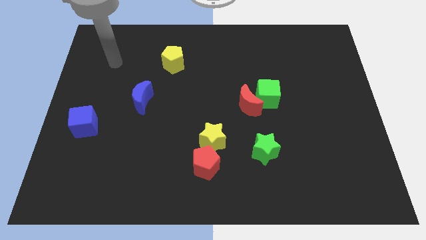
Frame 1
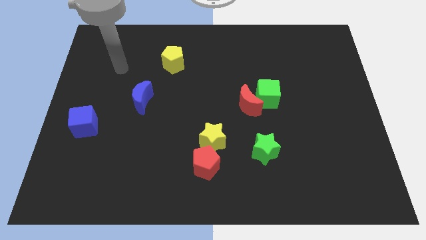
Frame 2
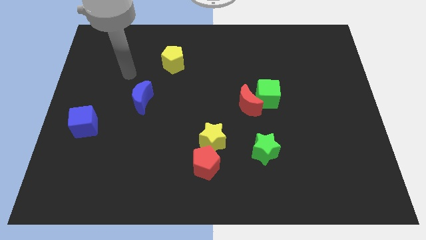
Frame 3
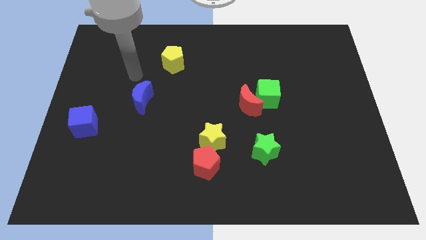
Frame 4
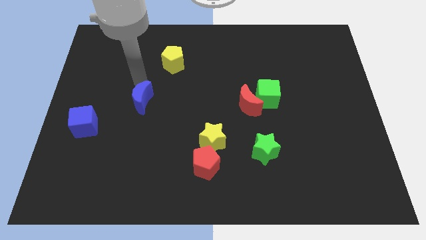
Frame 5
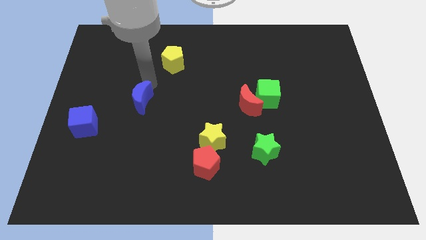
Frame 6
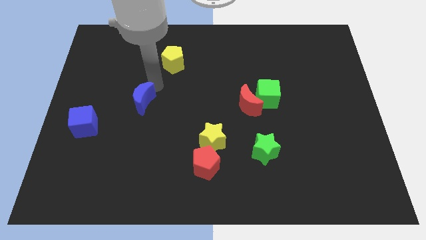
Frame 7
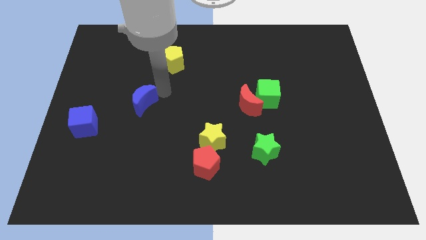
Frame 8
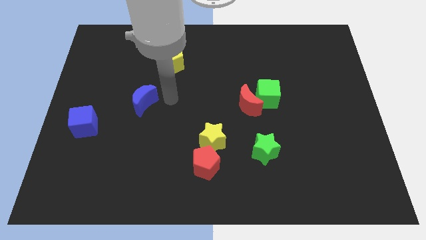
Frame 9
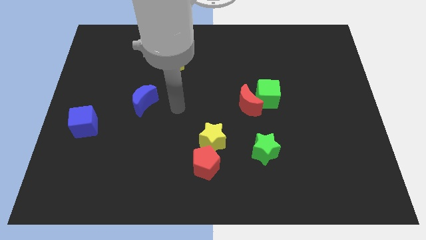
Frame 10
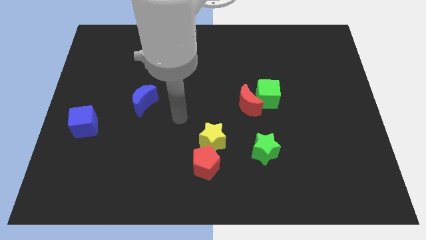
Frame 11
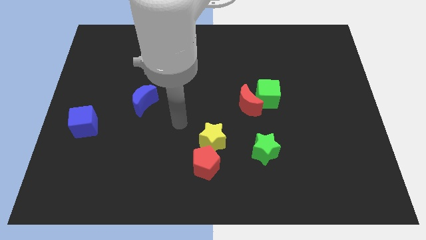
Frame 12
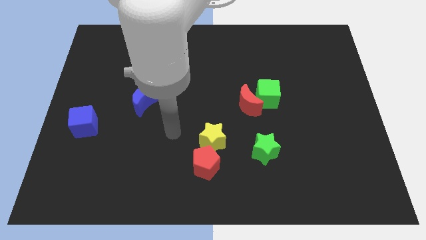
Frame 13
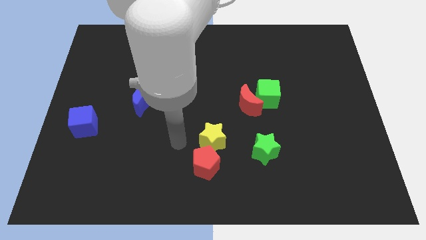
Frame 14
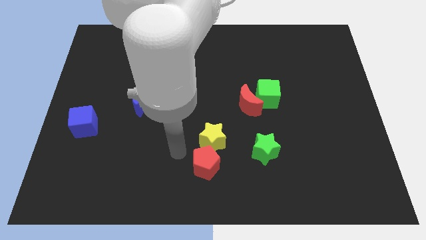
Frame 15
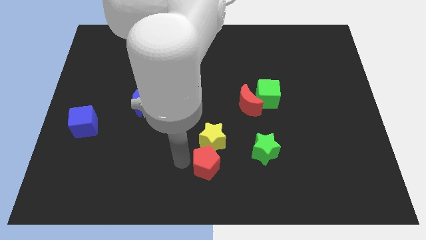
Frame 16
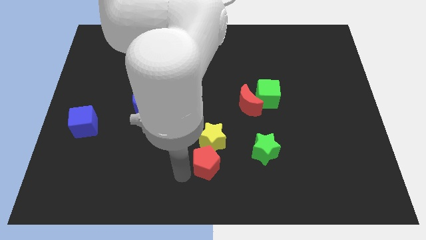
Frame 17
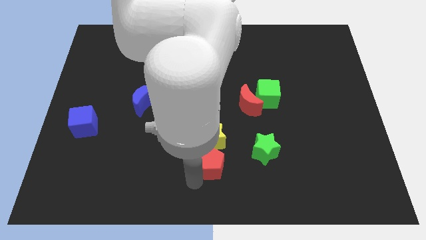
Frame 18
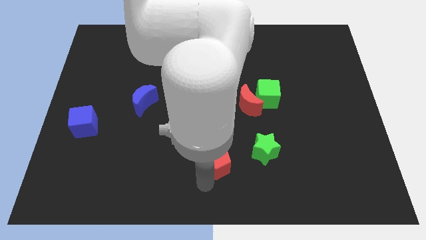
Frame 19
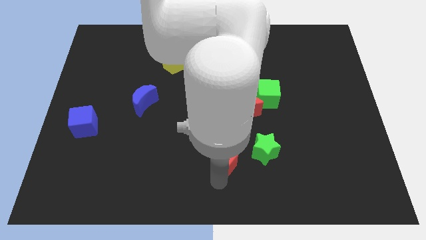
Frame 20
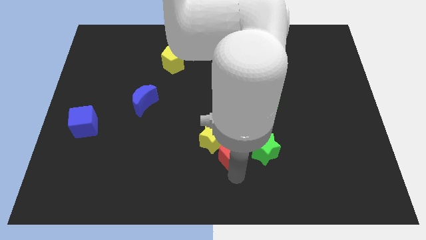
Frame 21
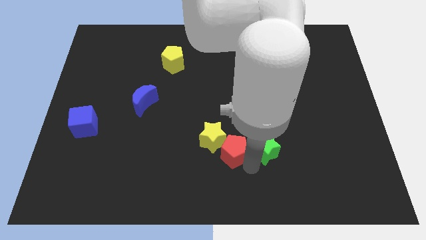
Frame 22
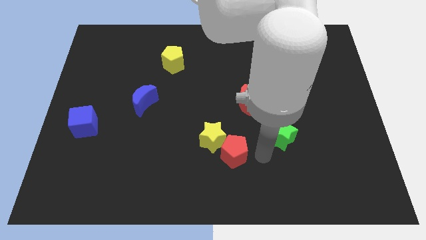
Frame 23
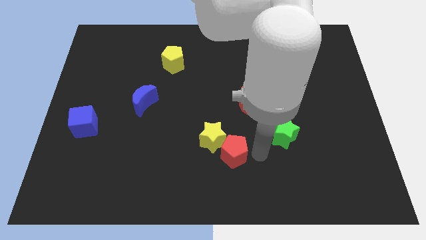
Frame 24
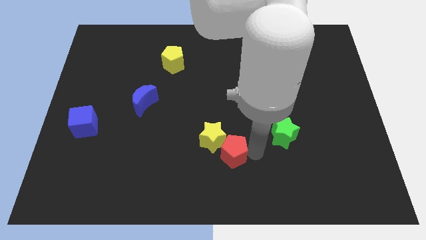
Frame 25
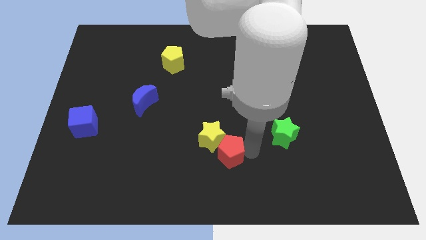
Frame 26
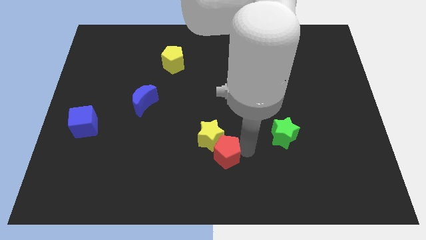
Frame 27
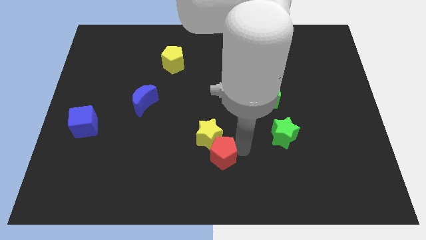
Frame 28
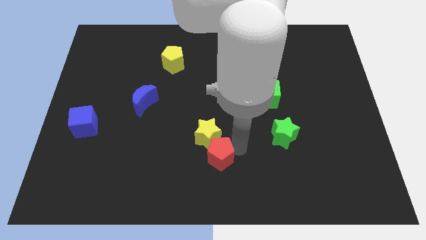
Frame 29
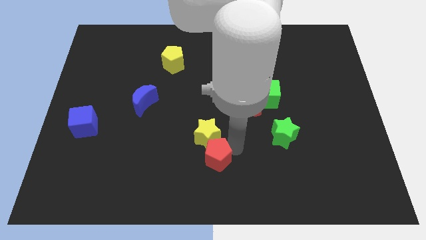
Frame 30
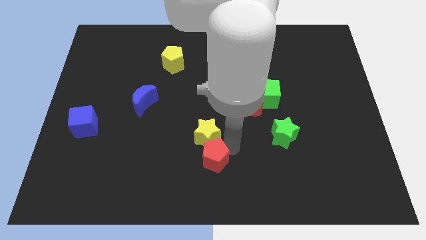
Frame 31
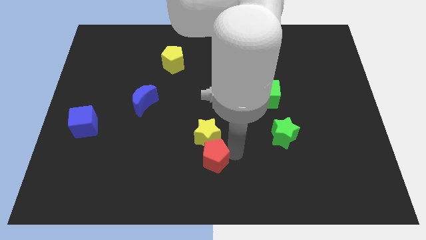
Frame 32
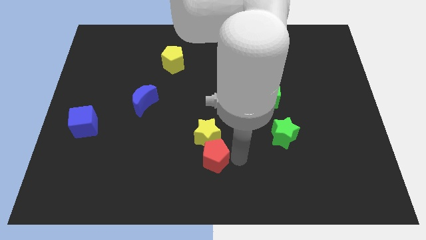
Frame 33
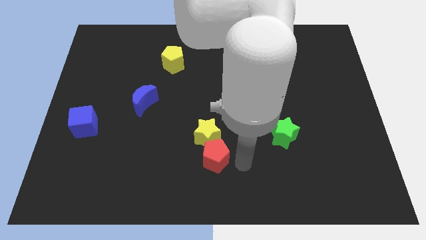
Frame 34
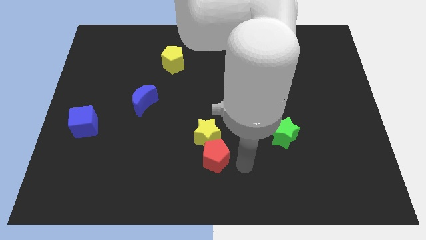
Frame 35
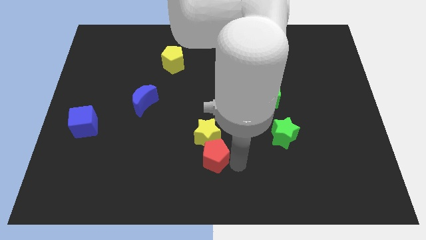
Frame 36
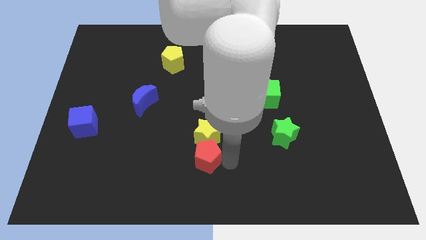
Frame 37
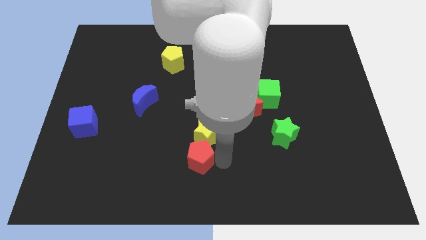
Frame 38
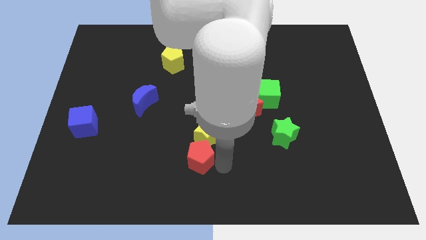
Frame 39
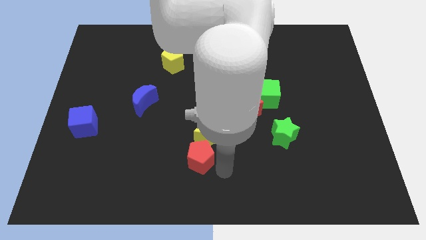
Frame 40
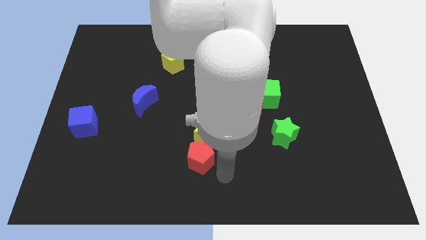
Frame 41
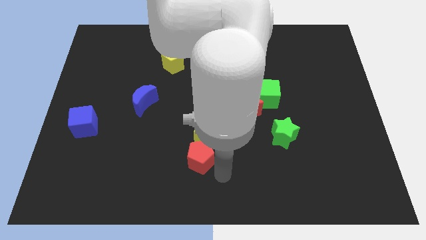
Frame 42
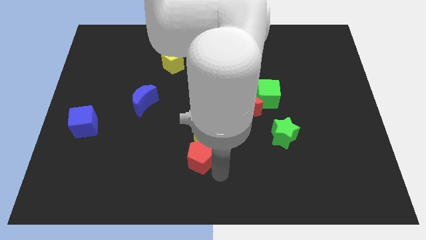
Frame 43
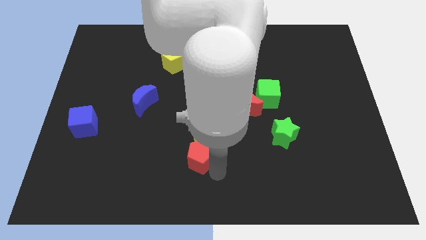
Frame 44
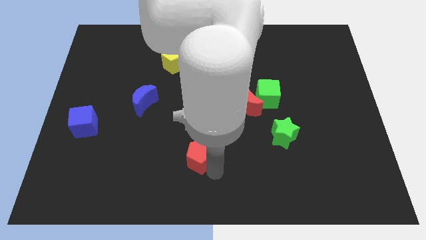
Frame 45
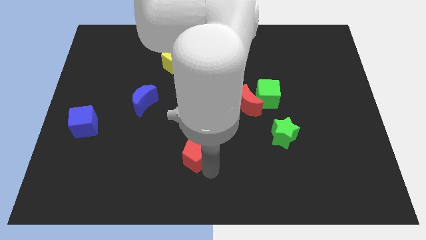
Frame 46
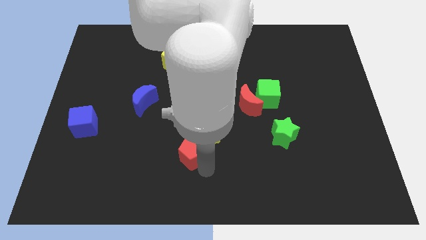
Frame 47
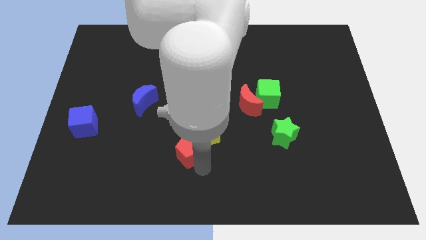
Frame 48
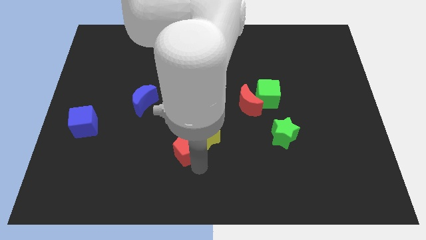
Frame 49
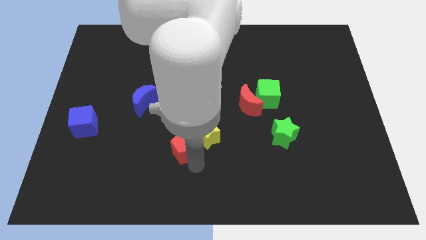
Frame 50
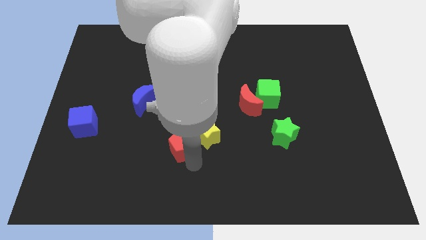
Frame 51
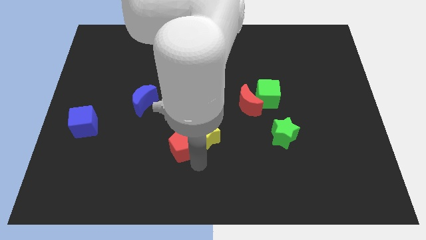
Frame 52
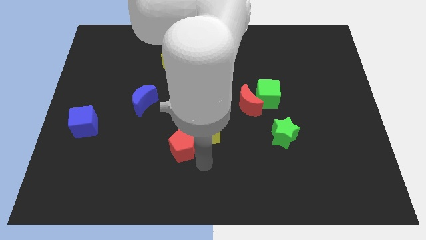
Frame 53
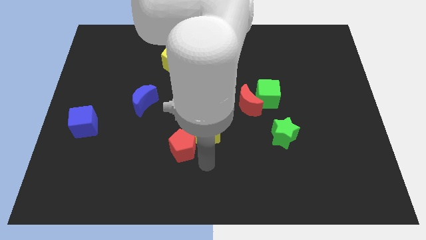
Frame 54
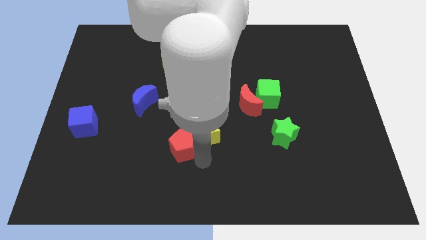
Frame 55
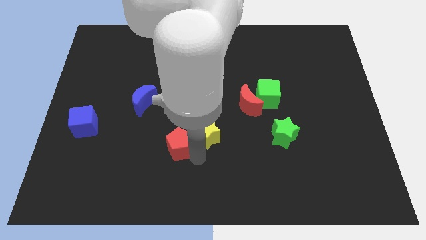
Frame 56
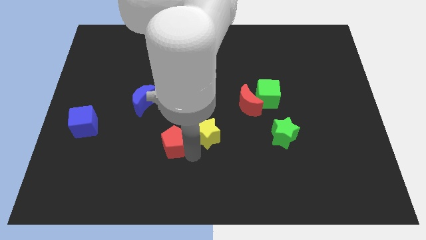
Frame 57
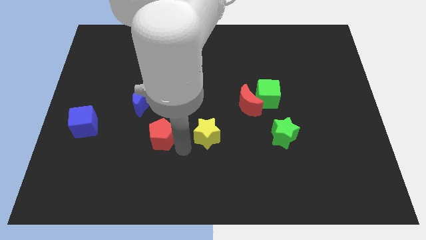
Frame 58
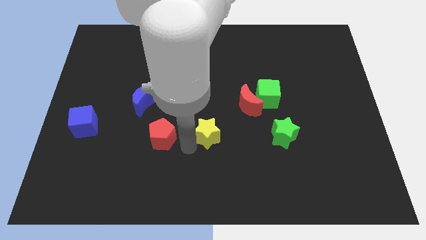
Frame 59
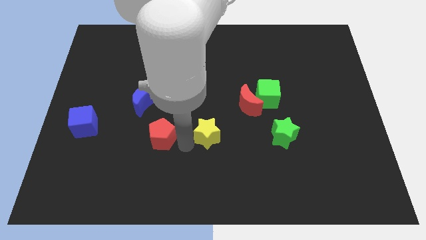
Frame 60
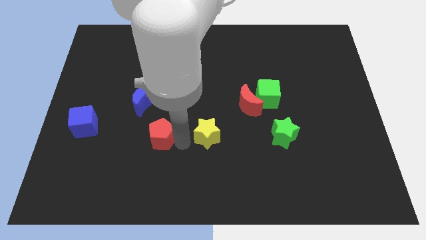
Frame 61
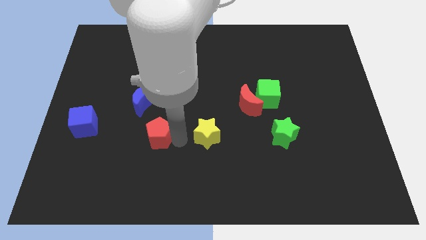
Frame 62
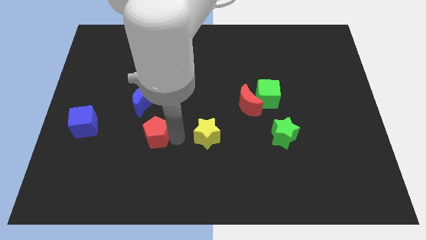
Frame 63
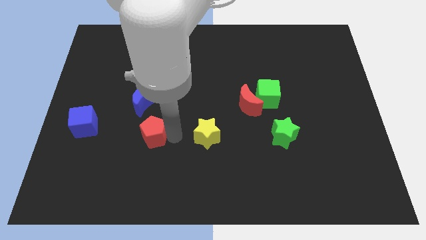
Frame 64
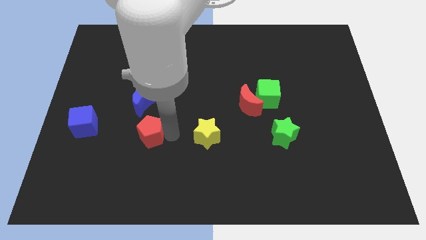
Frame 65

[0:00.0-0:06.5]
push the red pentagon to the right of the blue cube

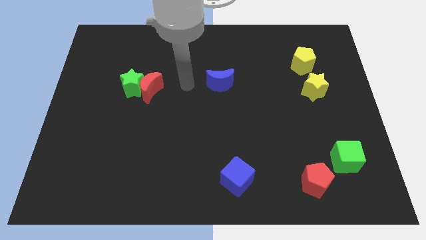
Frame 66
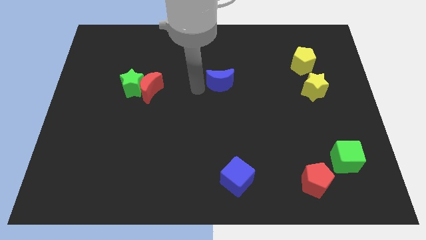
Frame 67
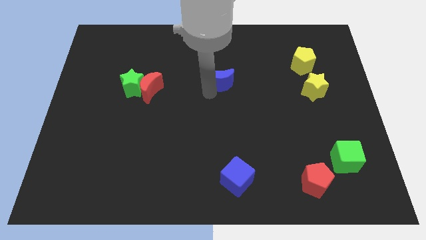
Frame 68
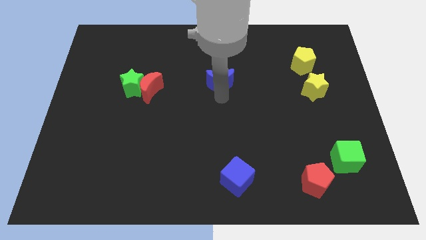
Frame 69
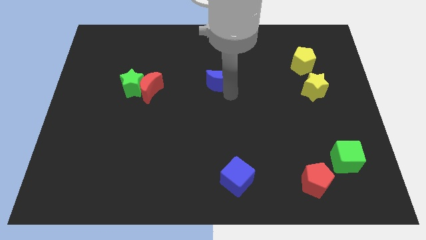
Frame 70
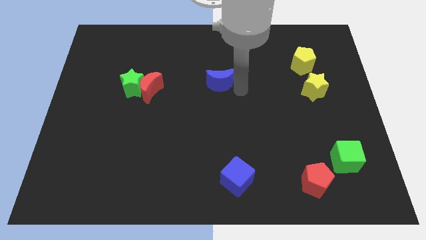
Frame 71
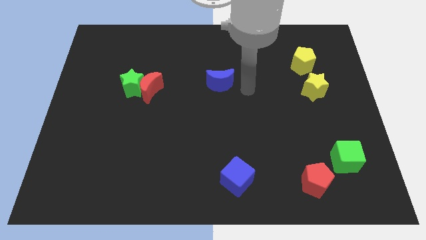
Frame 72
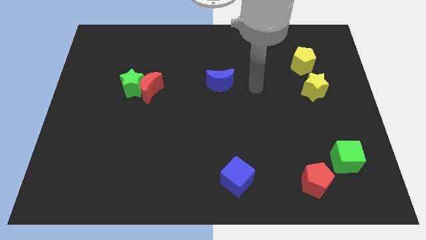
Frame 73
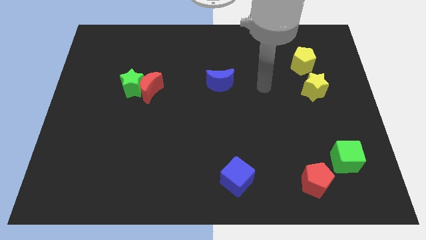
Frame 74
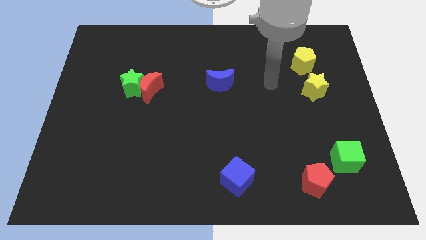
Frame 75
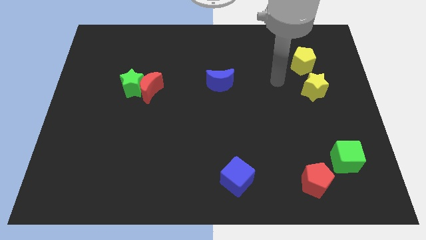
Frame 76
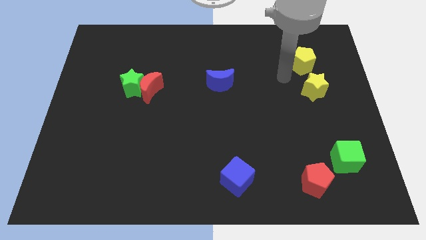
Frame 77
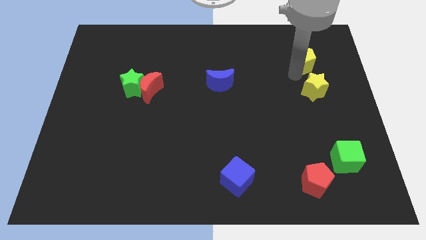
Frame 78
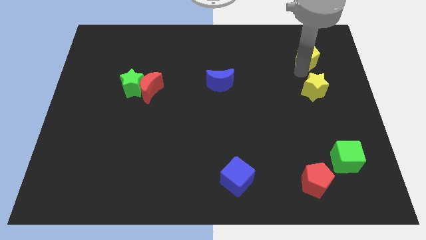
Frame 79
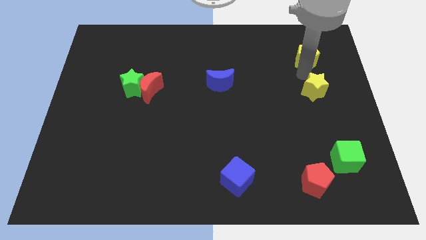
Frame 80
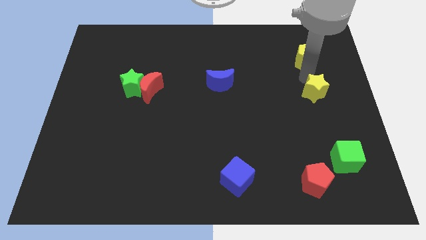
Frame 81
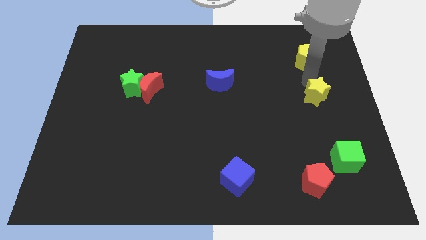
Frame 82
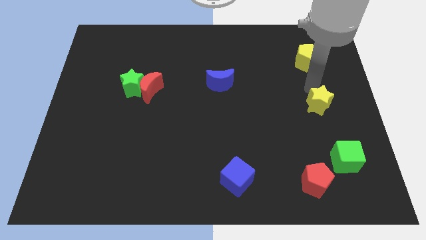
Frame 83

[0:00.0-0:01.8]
push the yellow star to the top side of the green cube
